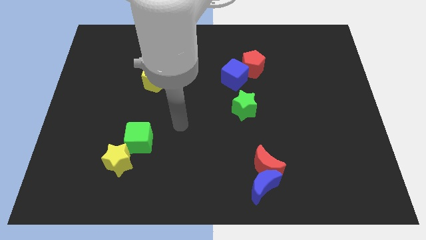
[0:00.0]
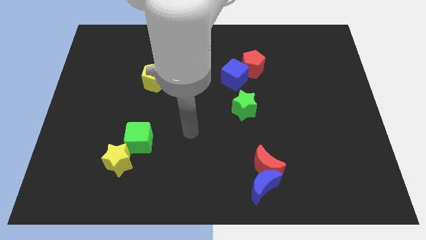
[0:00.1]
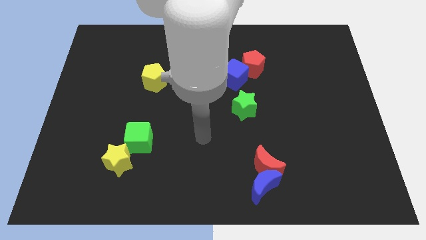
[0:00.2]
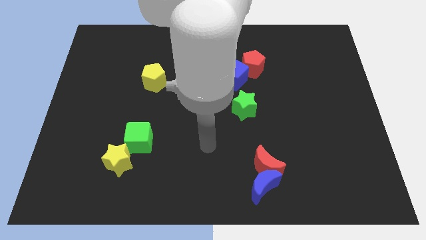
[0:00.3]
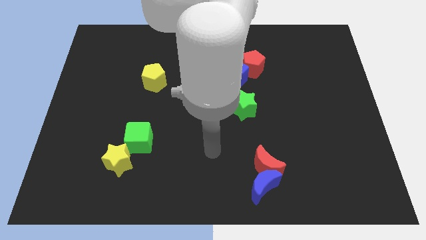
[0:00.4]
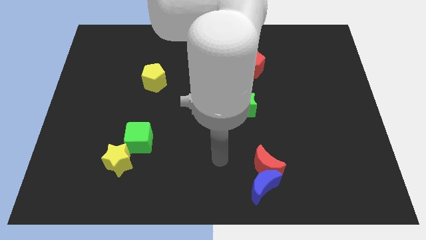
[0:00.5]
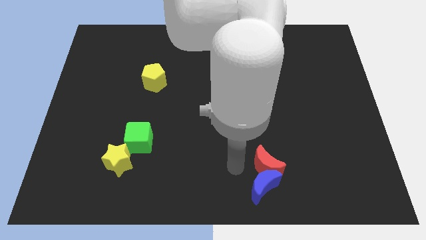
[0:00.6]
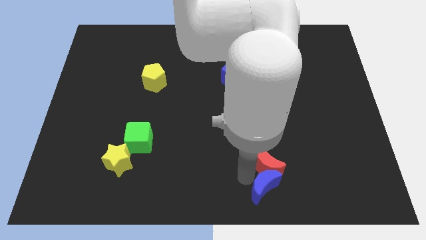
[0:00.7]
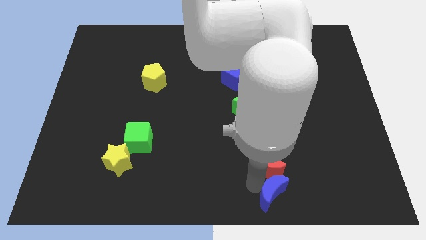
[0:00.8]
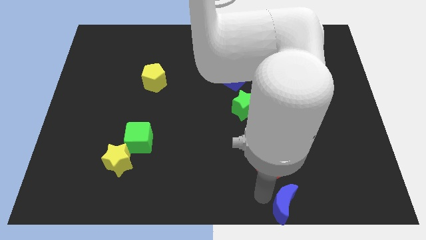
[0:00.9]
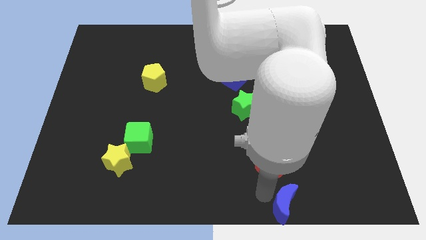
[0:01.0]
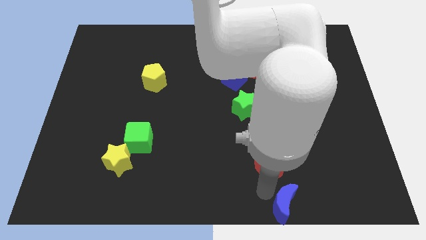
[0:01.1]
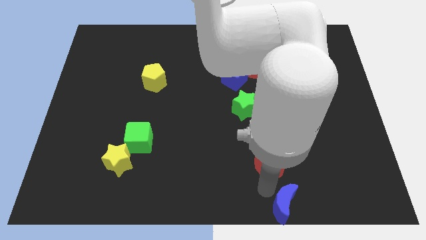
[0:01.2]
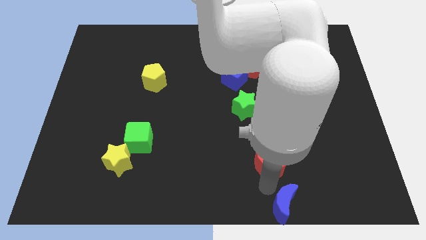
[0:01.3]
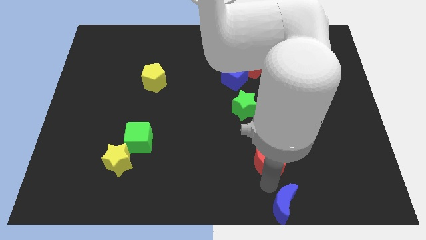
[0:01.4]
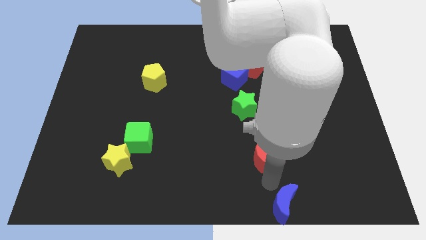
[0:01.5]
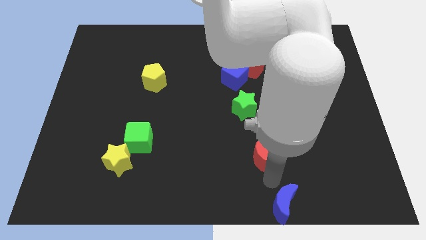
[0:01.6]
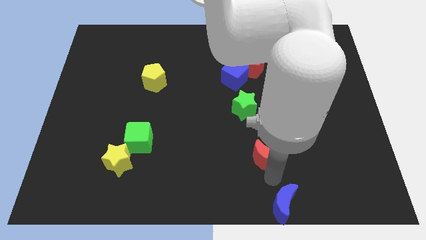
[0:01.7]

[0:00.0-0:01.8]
move the red moon away from the blue moon

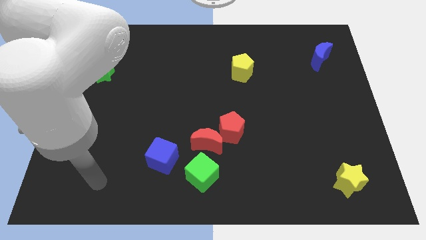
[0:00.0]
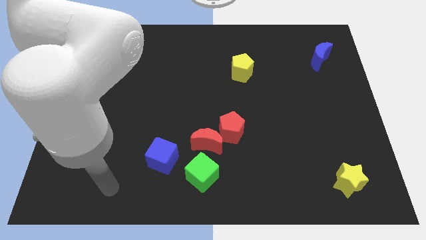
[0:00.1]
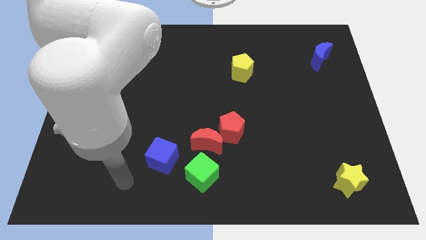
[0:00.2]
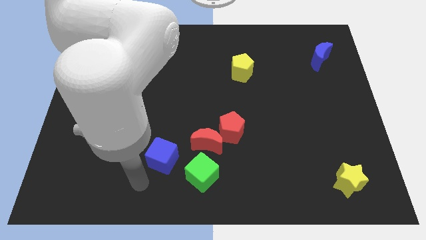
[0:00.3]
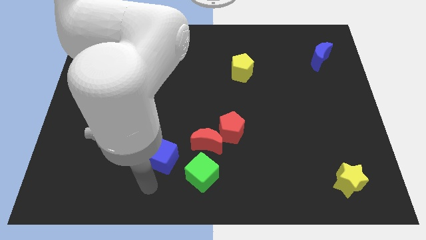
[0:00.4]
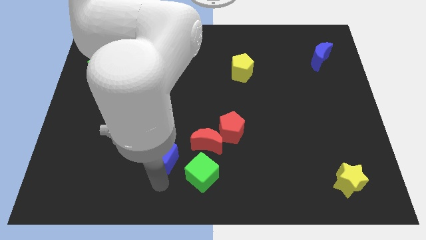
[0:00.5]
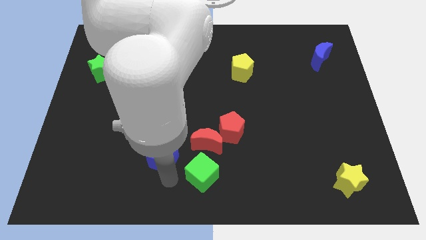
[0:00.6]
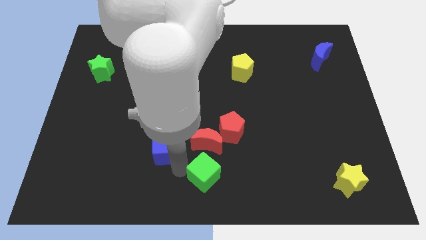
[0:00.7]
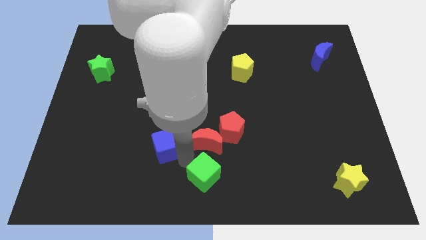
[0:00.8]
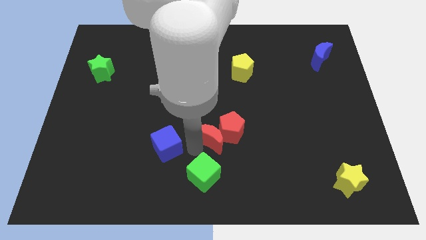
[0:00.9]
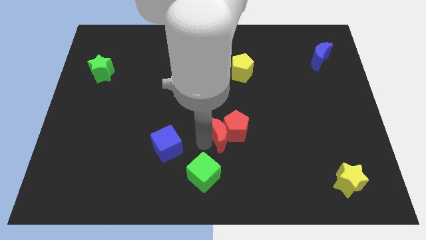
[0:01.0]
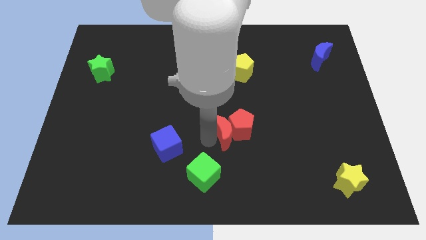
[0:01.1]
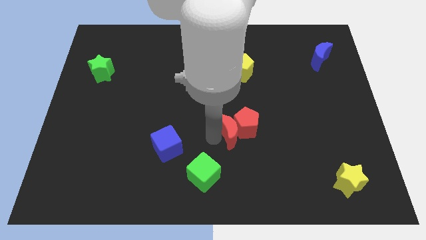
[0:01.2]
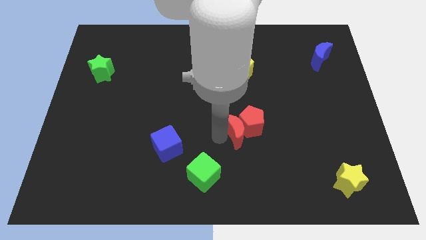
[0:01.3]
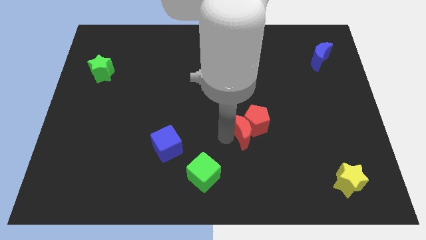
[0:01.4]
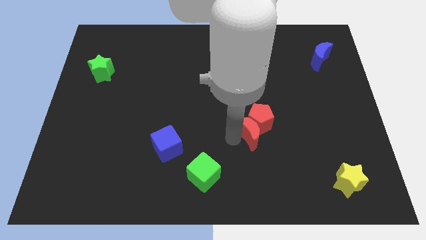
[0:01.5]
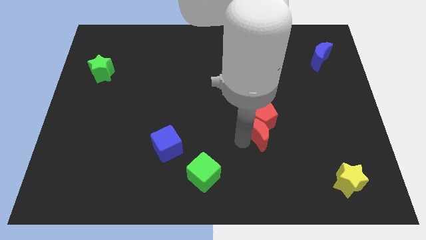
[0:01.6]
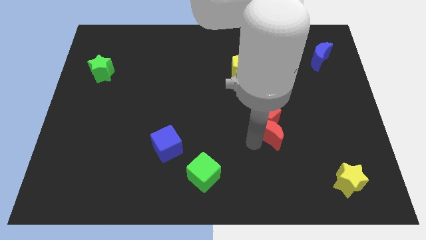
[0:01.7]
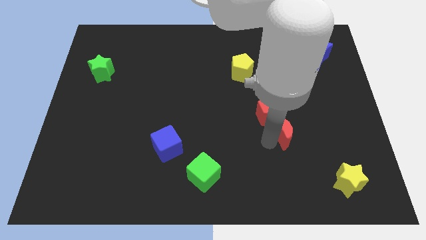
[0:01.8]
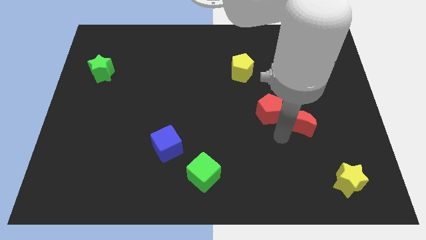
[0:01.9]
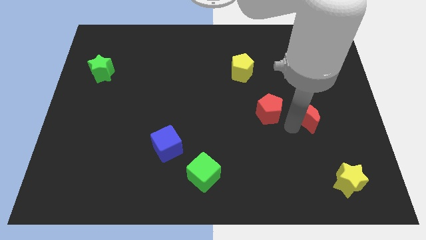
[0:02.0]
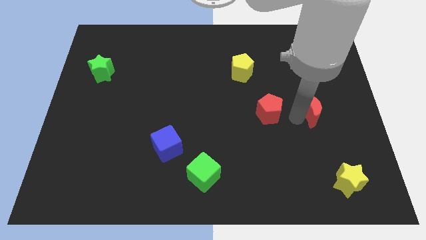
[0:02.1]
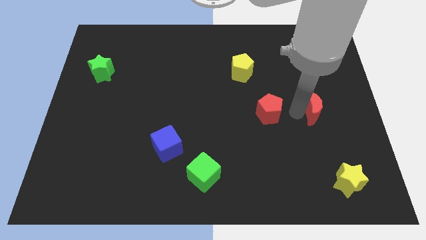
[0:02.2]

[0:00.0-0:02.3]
pull the red pentagon apart from the red moon

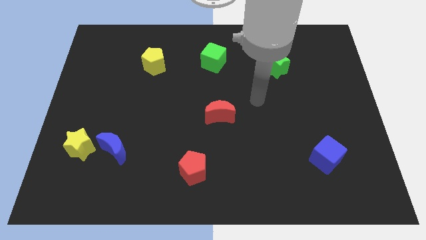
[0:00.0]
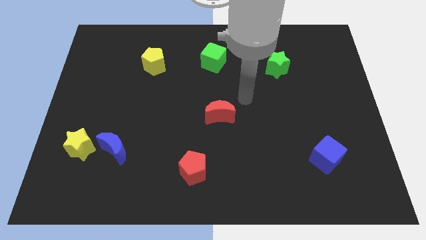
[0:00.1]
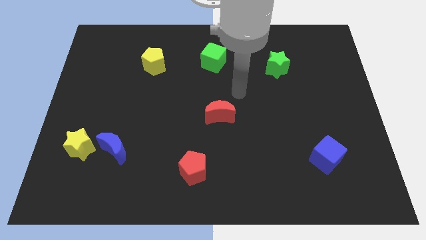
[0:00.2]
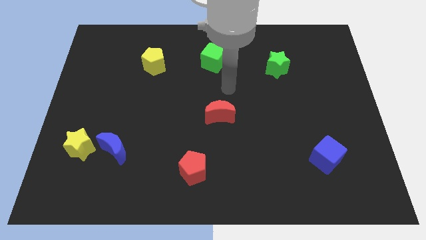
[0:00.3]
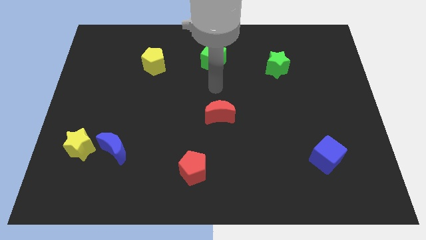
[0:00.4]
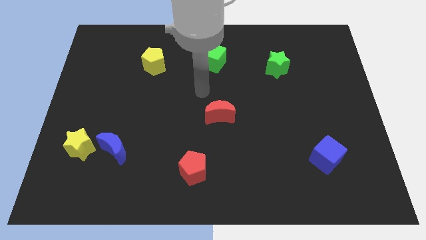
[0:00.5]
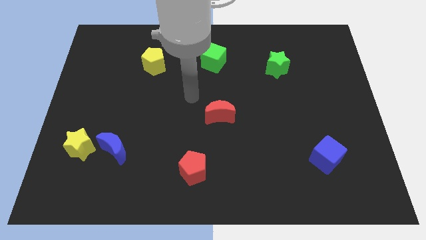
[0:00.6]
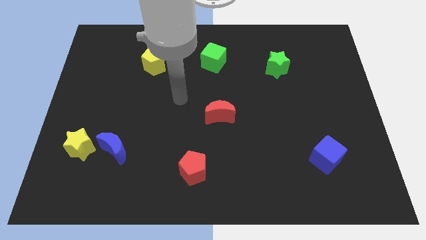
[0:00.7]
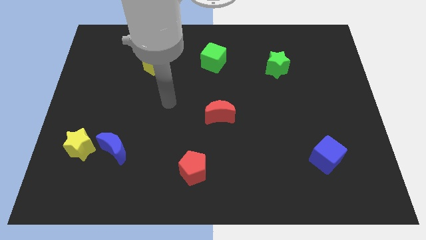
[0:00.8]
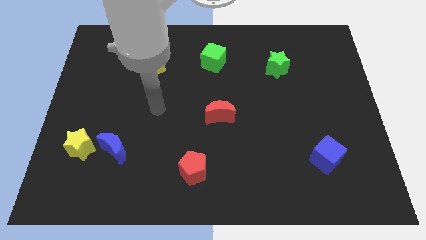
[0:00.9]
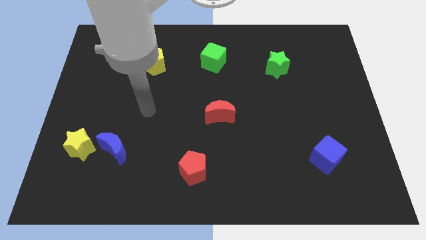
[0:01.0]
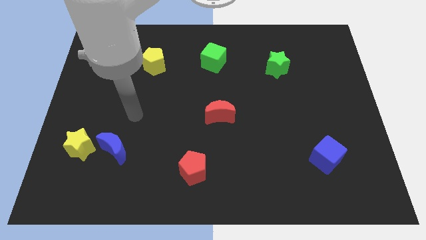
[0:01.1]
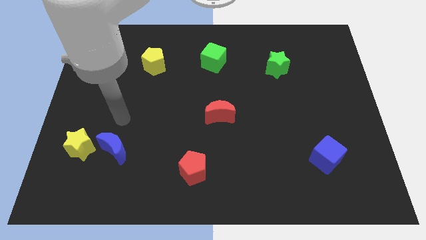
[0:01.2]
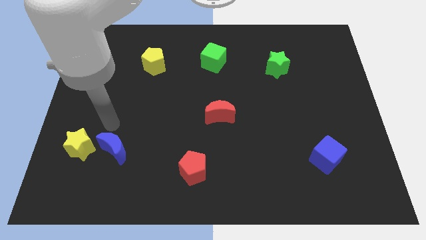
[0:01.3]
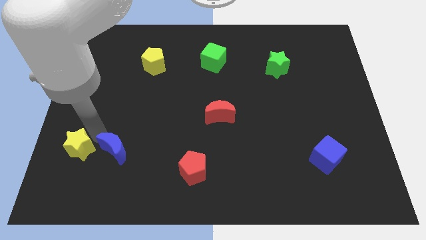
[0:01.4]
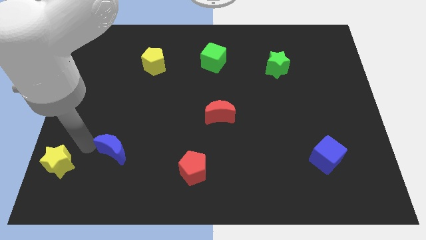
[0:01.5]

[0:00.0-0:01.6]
pull the blue moon apart from the yellow star

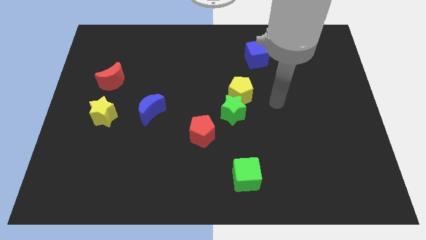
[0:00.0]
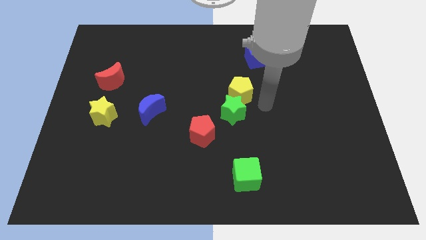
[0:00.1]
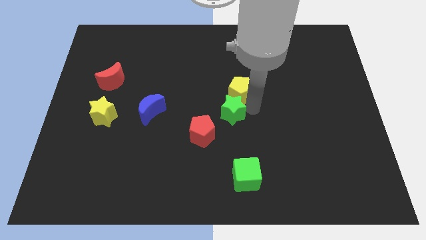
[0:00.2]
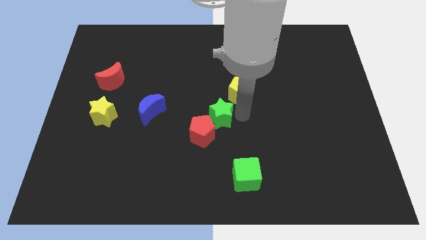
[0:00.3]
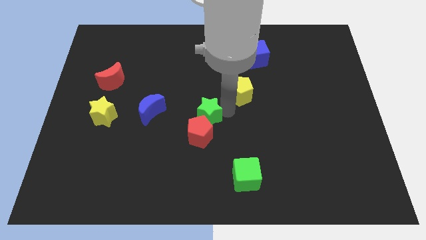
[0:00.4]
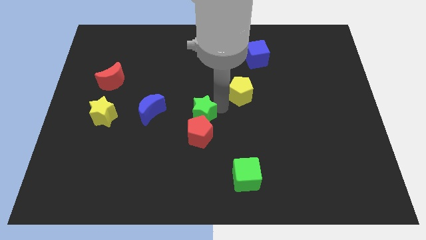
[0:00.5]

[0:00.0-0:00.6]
pull the yellow pentagon apart from the green star

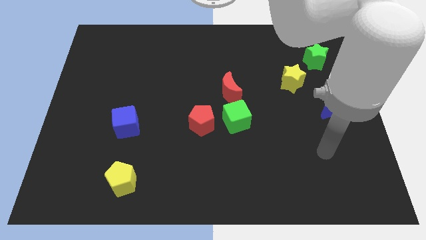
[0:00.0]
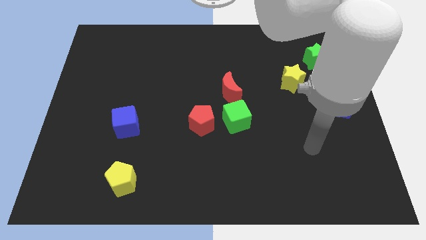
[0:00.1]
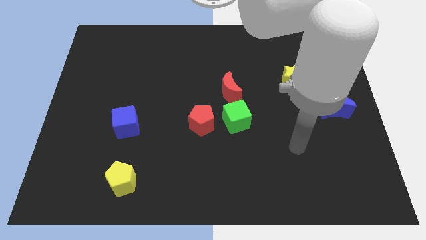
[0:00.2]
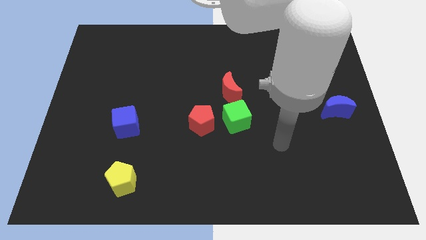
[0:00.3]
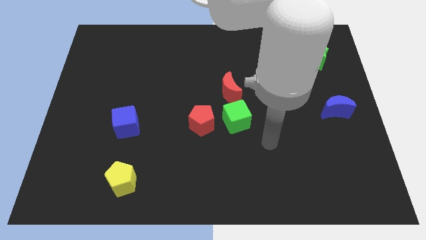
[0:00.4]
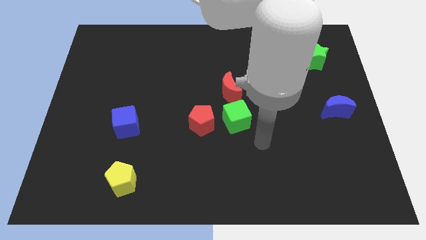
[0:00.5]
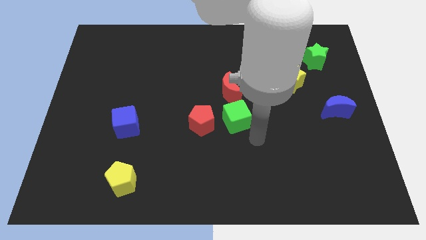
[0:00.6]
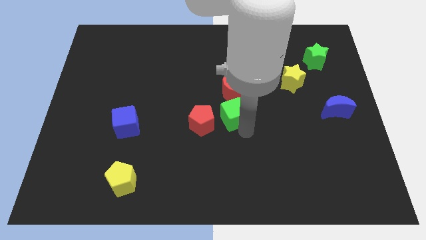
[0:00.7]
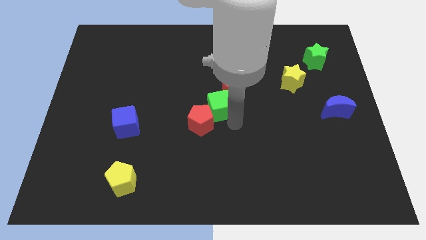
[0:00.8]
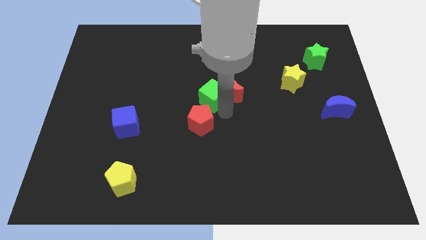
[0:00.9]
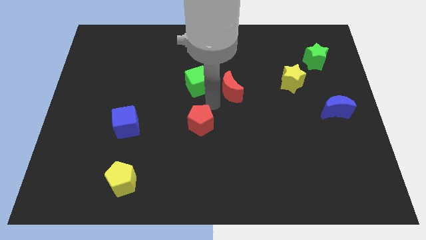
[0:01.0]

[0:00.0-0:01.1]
pull the red pentagon apart from the green cube

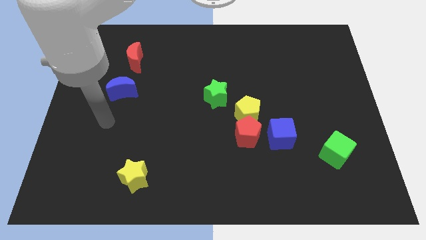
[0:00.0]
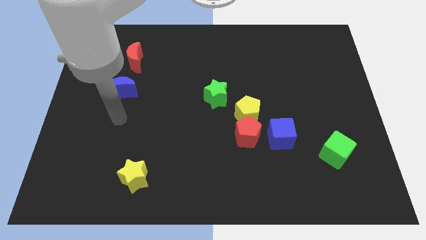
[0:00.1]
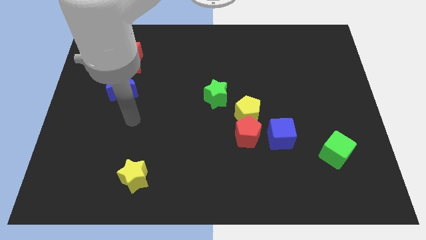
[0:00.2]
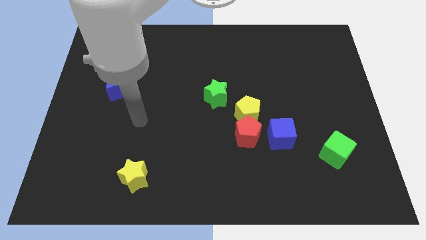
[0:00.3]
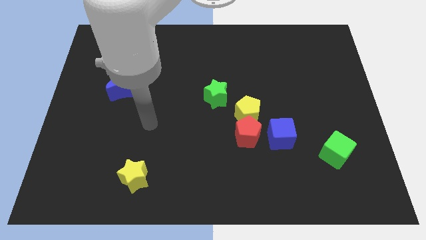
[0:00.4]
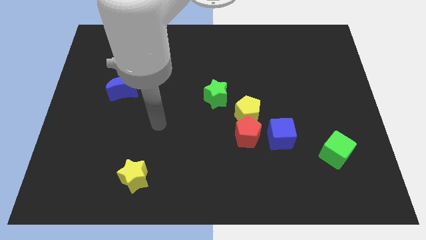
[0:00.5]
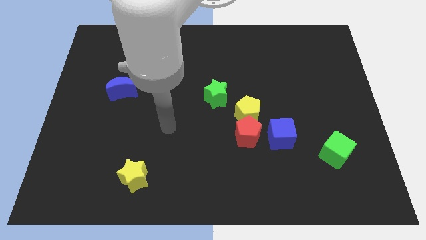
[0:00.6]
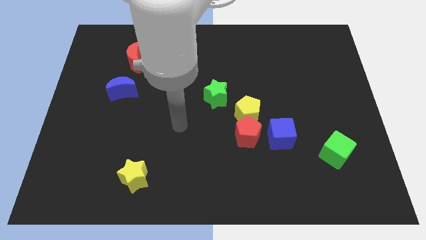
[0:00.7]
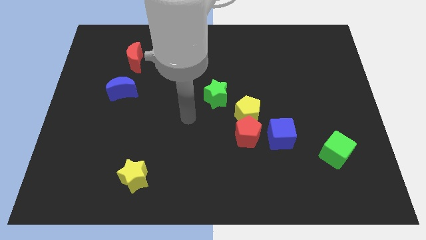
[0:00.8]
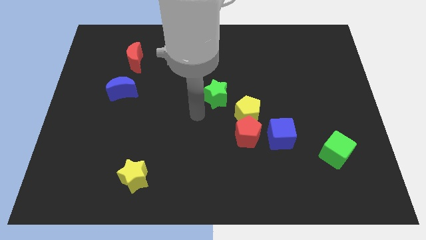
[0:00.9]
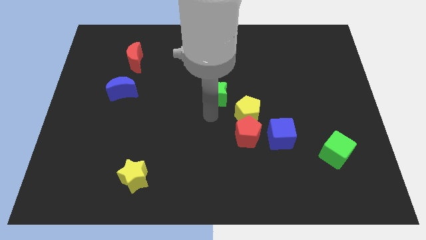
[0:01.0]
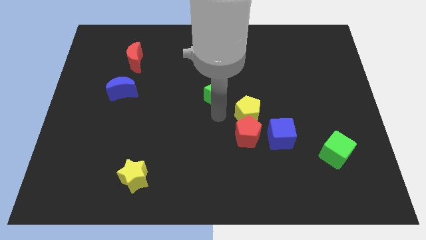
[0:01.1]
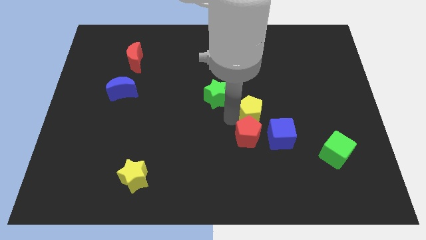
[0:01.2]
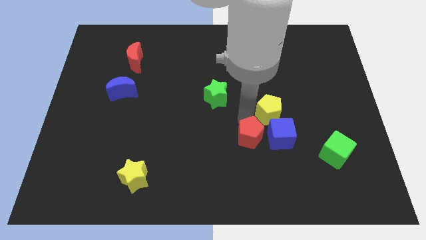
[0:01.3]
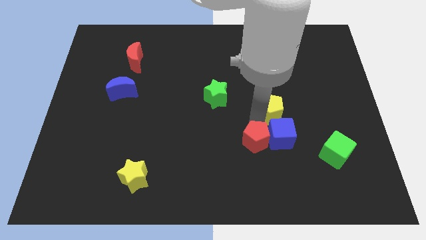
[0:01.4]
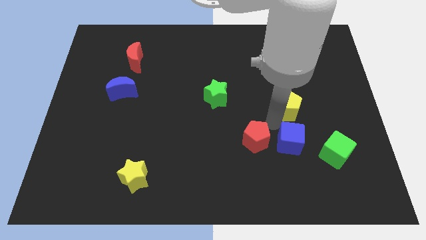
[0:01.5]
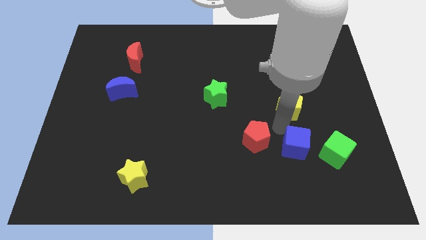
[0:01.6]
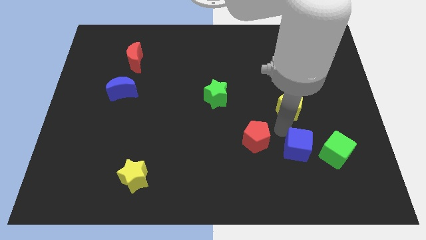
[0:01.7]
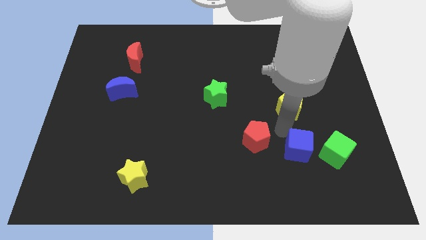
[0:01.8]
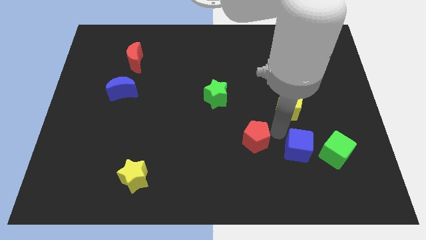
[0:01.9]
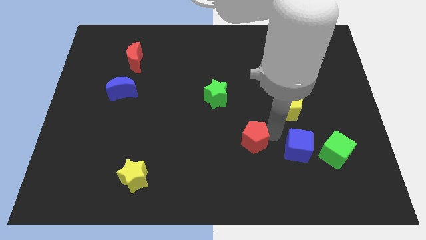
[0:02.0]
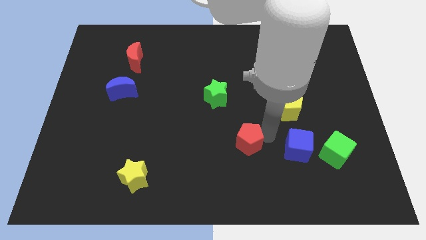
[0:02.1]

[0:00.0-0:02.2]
move the red pentagon away from the yellow pentagon and blue cube
